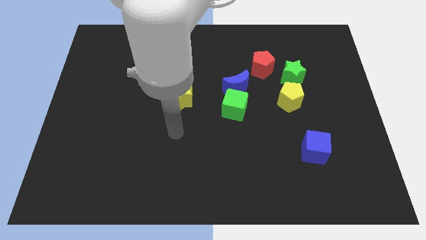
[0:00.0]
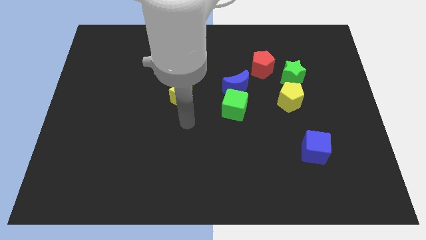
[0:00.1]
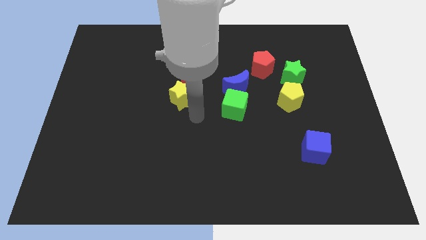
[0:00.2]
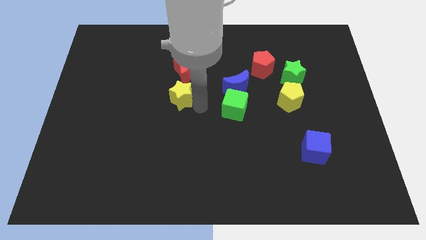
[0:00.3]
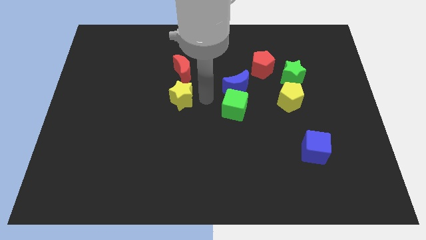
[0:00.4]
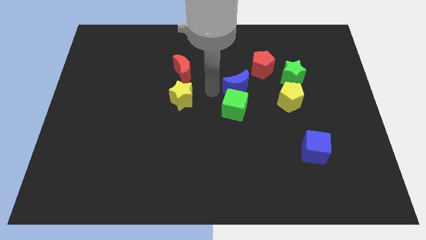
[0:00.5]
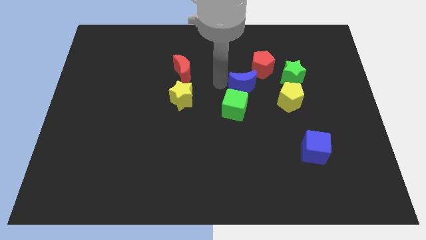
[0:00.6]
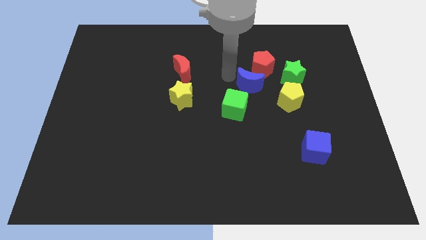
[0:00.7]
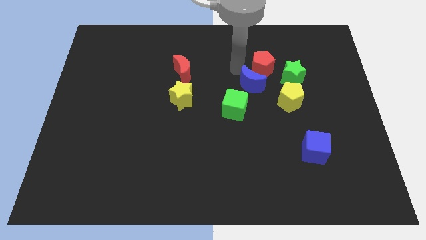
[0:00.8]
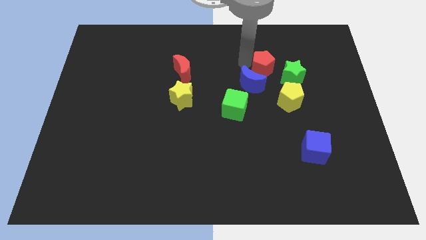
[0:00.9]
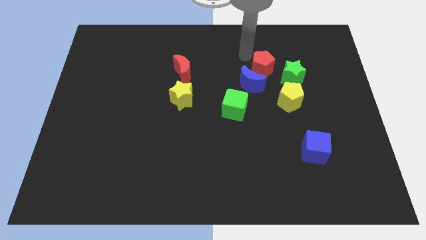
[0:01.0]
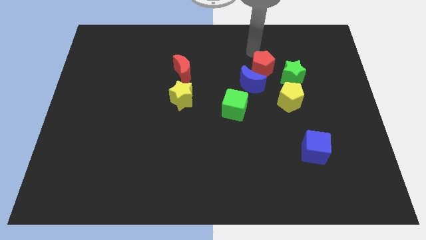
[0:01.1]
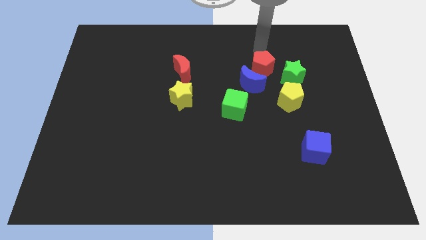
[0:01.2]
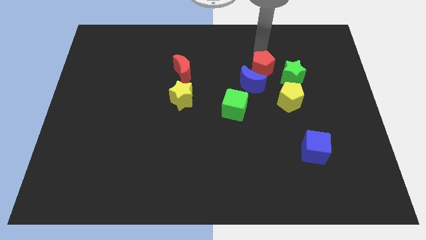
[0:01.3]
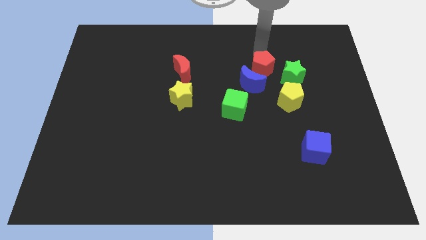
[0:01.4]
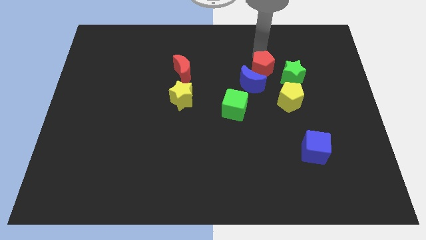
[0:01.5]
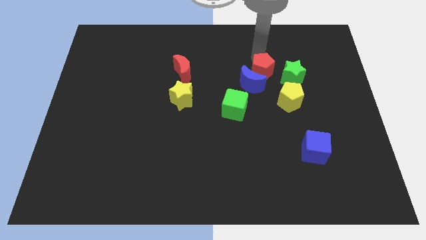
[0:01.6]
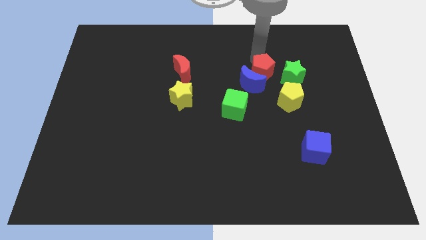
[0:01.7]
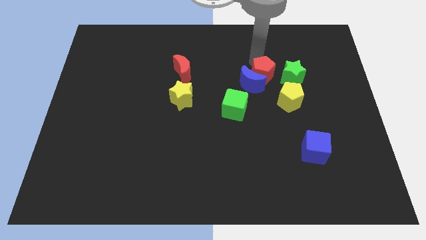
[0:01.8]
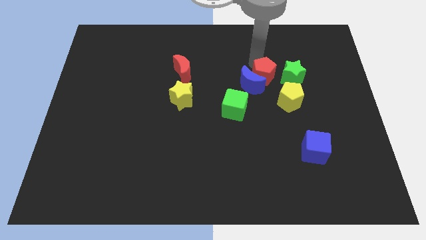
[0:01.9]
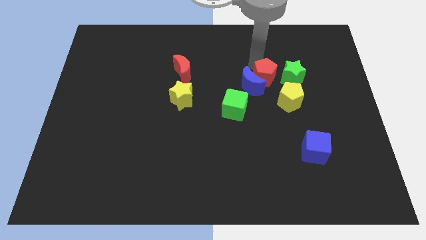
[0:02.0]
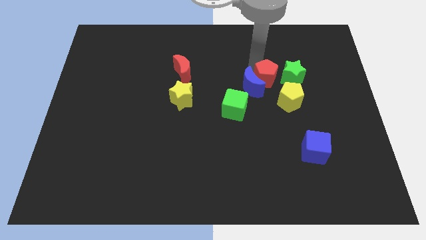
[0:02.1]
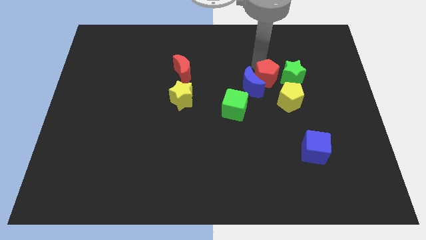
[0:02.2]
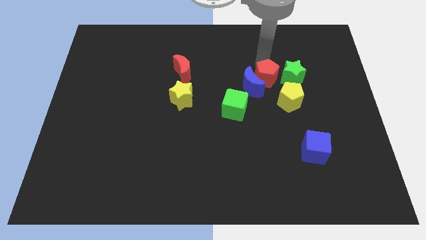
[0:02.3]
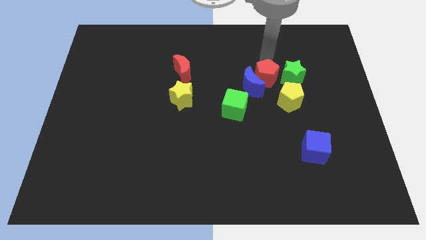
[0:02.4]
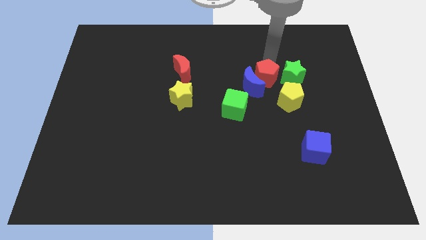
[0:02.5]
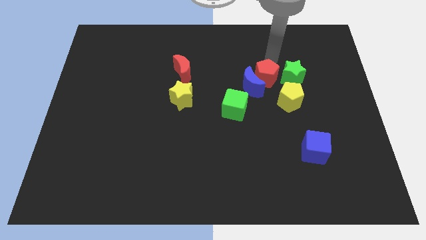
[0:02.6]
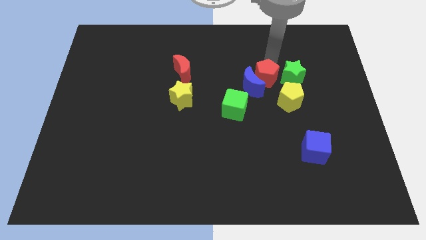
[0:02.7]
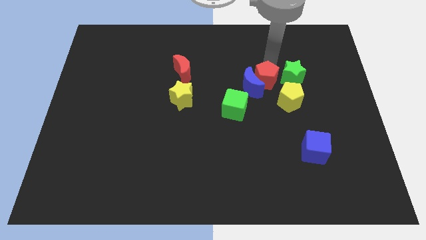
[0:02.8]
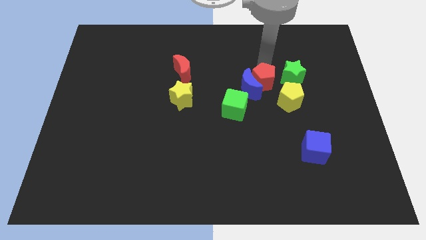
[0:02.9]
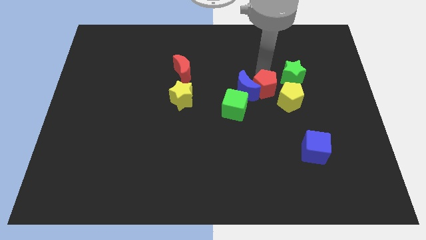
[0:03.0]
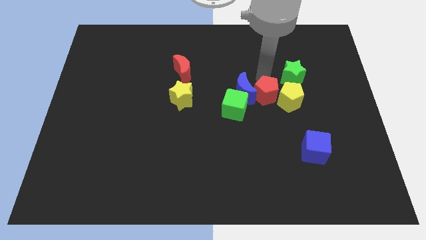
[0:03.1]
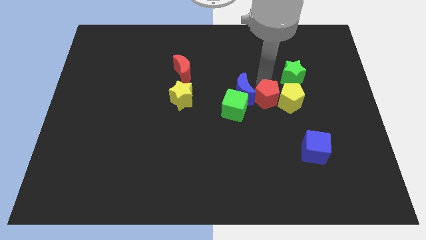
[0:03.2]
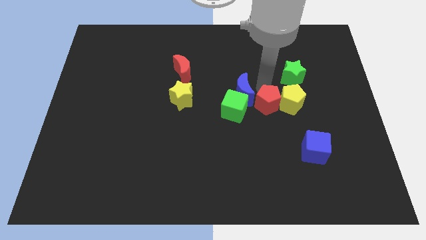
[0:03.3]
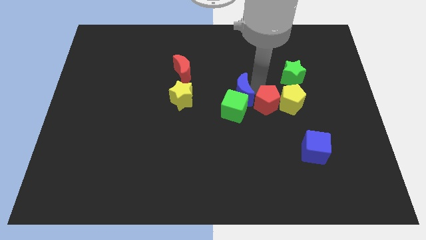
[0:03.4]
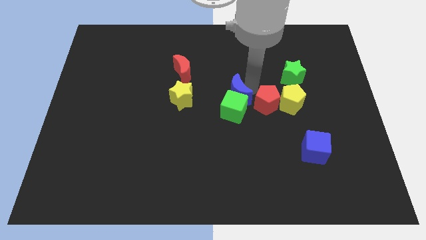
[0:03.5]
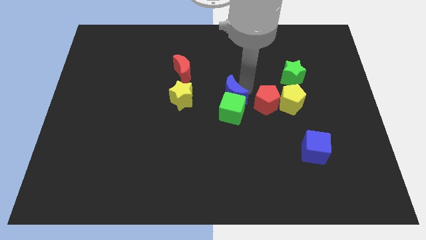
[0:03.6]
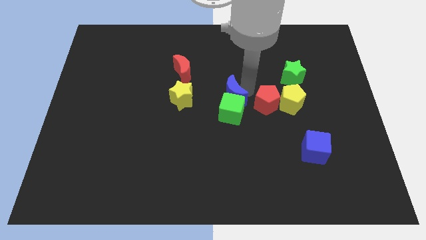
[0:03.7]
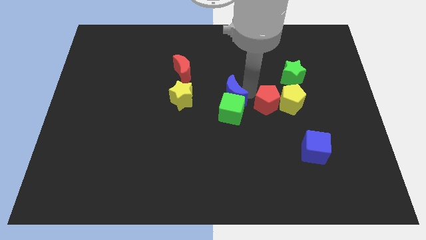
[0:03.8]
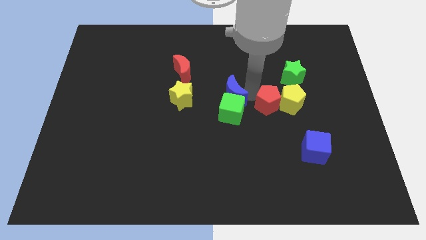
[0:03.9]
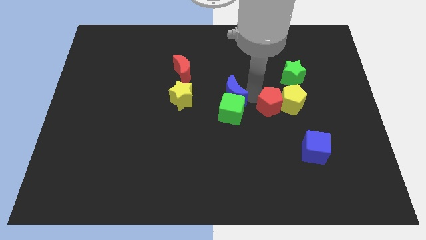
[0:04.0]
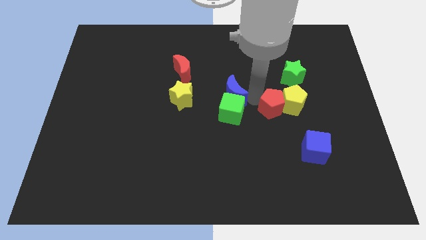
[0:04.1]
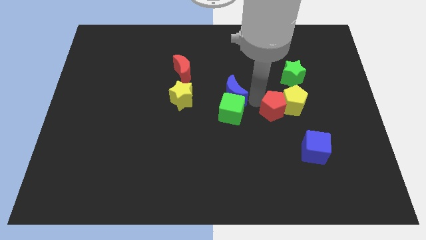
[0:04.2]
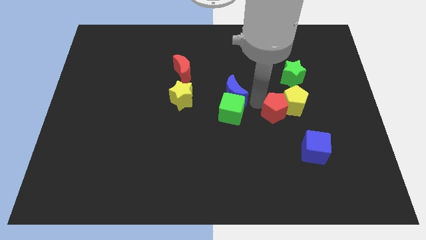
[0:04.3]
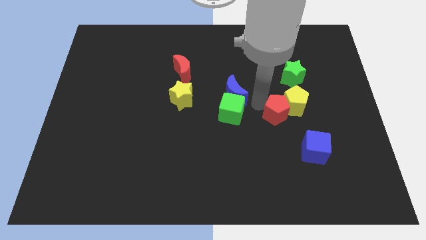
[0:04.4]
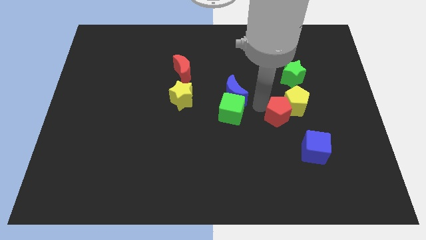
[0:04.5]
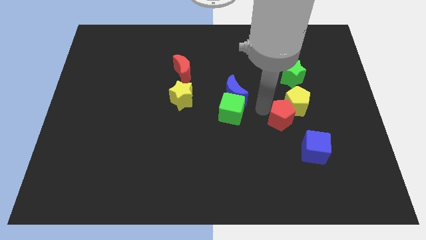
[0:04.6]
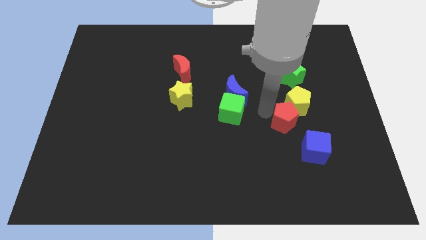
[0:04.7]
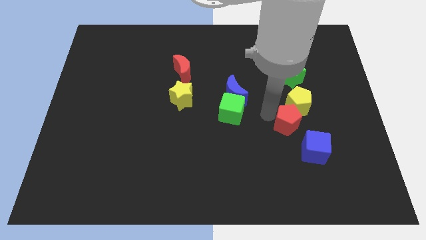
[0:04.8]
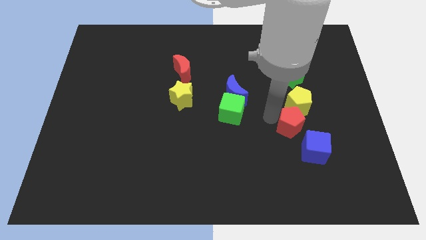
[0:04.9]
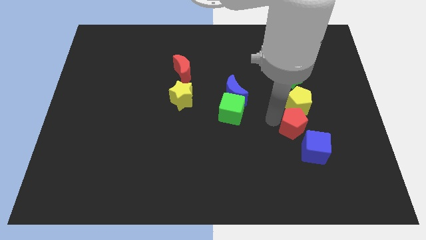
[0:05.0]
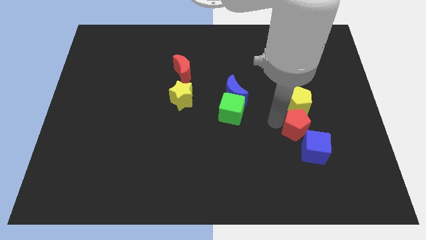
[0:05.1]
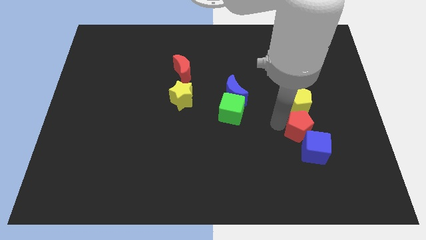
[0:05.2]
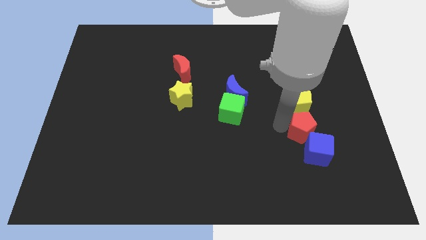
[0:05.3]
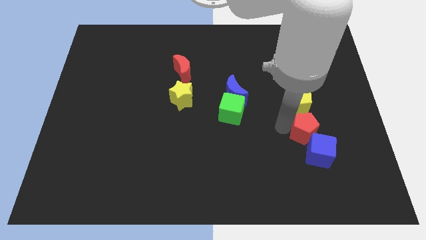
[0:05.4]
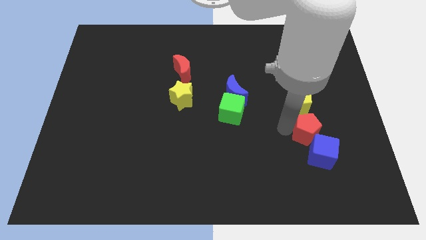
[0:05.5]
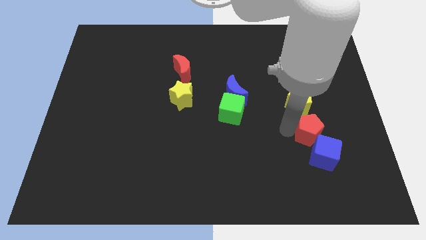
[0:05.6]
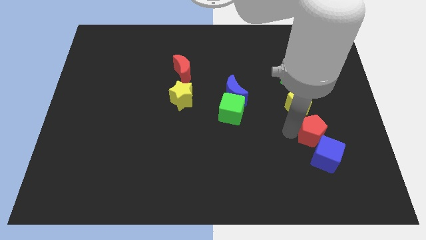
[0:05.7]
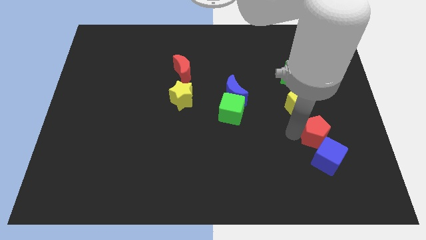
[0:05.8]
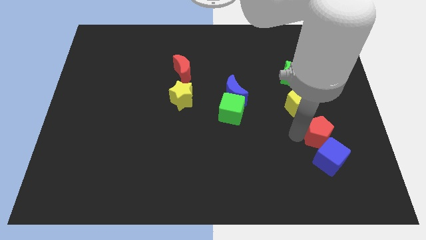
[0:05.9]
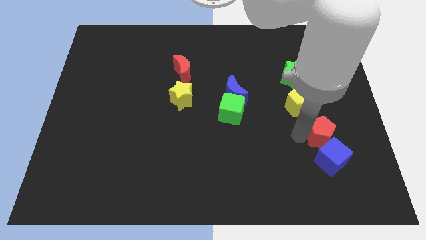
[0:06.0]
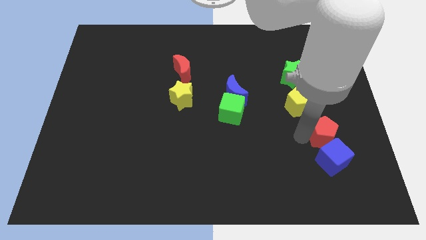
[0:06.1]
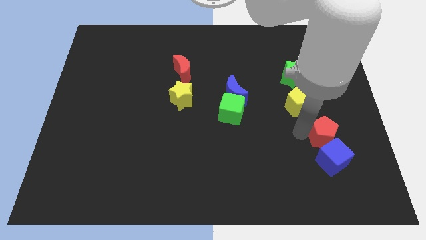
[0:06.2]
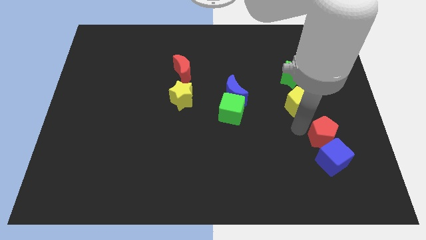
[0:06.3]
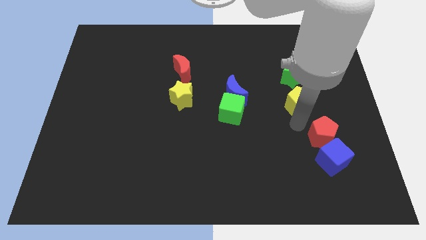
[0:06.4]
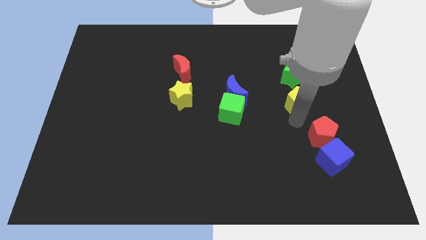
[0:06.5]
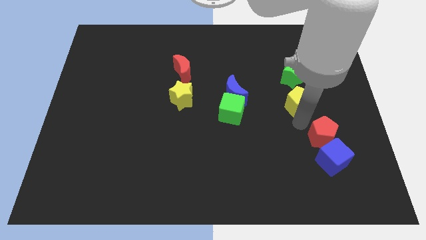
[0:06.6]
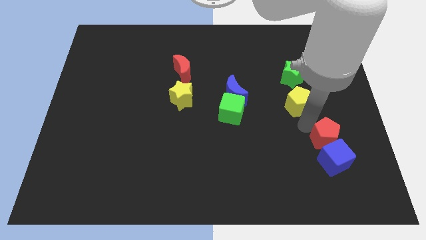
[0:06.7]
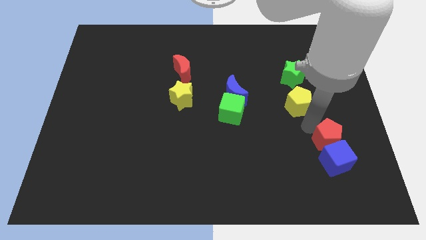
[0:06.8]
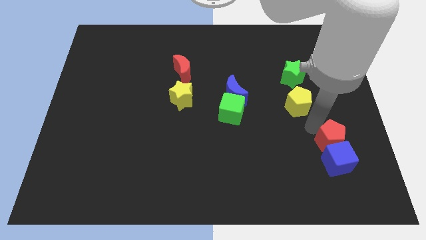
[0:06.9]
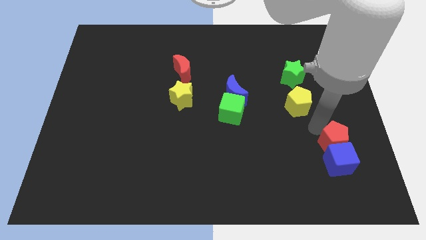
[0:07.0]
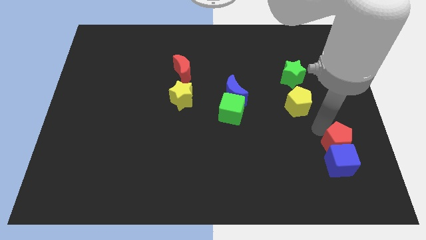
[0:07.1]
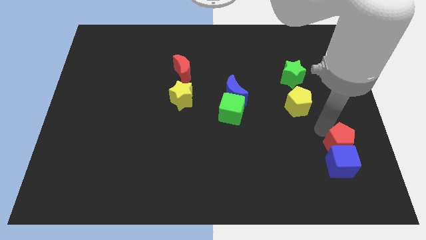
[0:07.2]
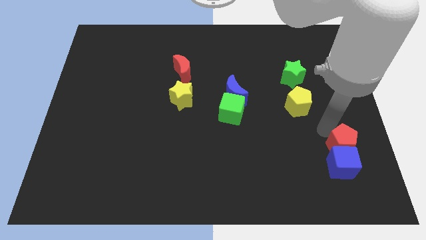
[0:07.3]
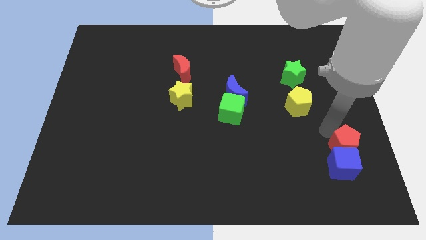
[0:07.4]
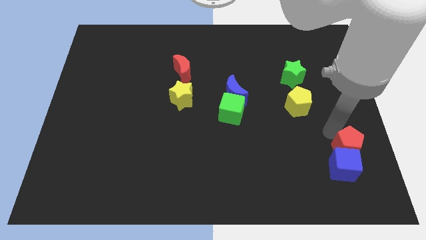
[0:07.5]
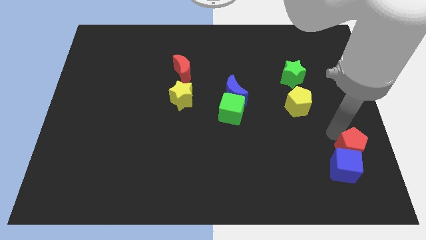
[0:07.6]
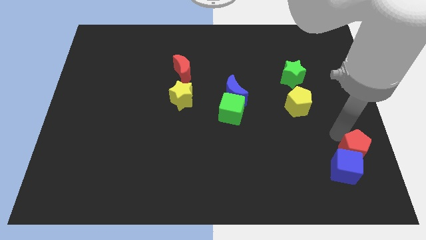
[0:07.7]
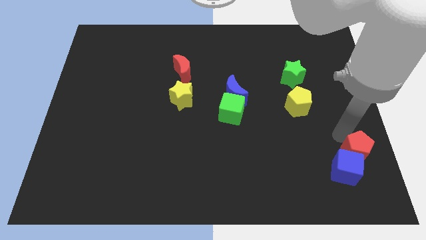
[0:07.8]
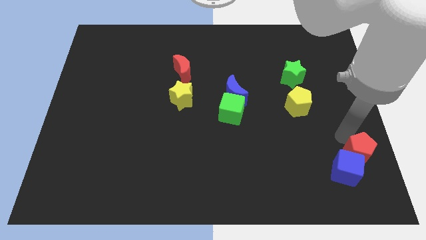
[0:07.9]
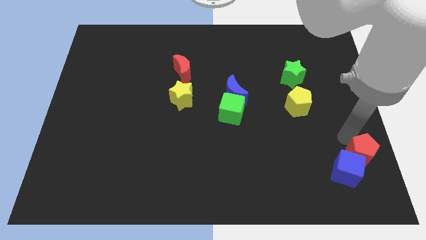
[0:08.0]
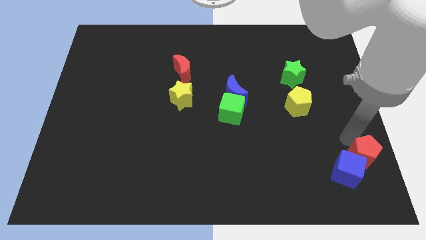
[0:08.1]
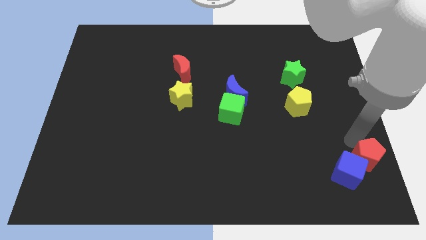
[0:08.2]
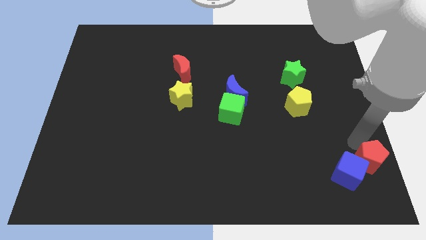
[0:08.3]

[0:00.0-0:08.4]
slide the red pentagon to the bottom right corner
